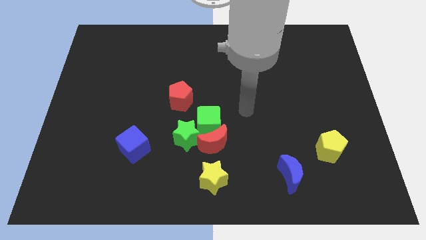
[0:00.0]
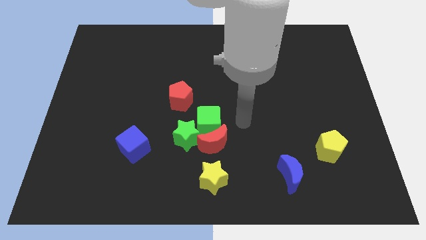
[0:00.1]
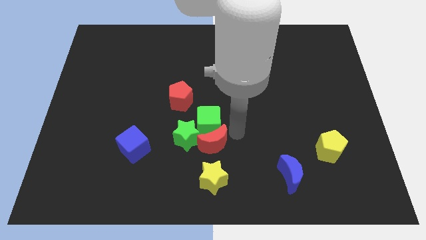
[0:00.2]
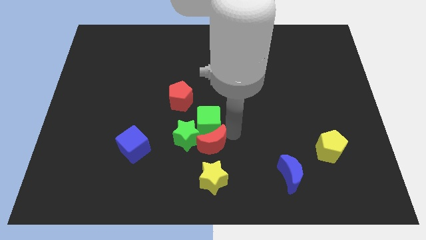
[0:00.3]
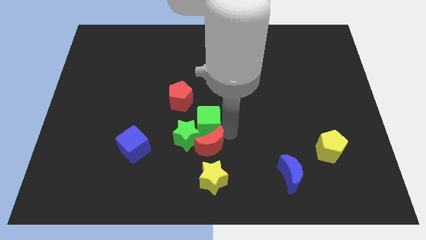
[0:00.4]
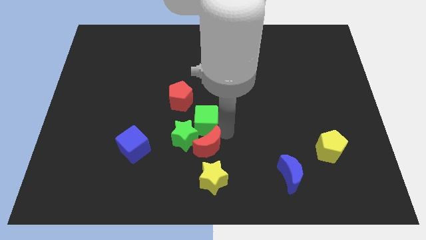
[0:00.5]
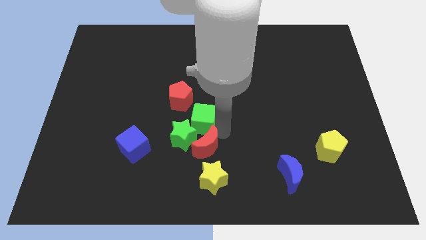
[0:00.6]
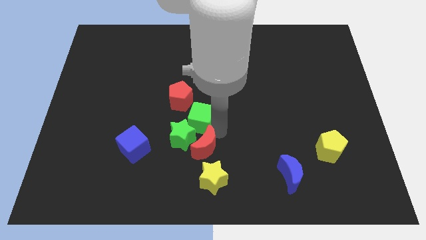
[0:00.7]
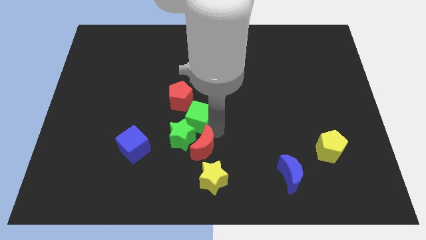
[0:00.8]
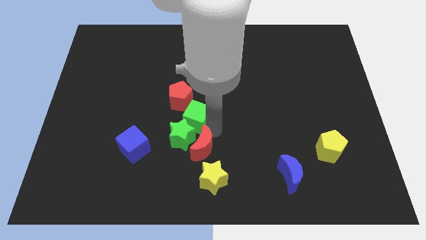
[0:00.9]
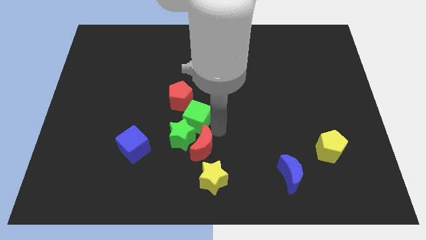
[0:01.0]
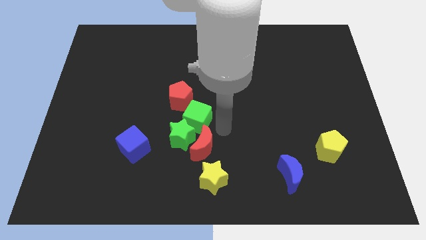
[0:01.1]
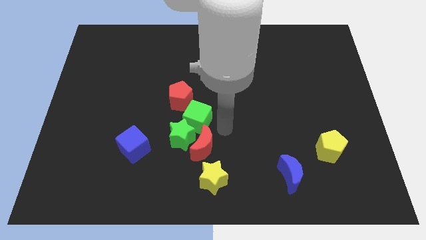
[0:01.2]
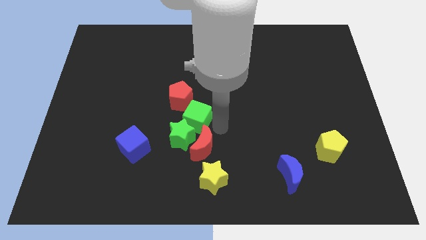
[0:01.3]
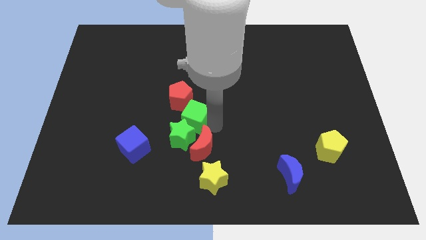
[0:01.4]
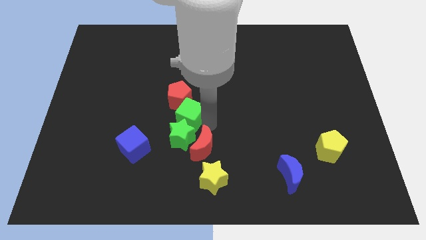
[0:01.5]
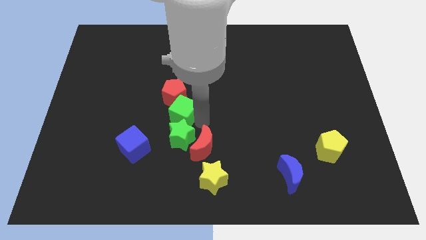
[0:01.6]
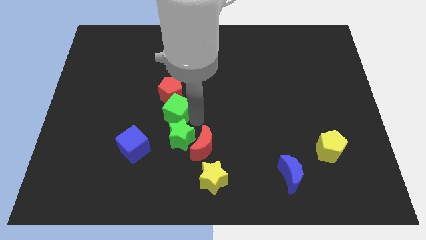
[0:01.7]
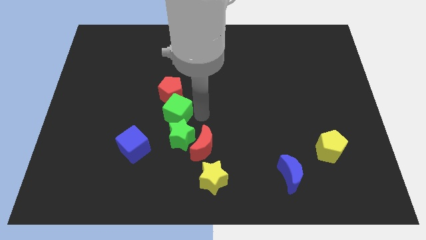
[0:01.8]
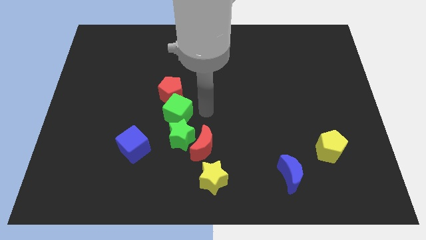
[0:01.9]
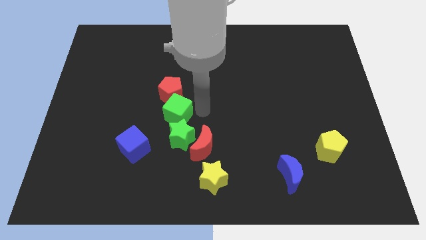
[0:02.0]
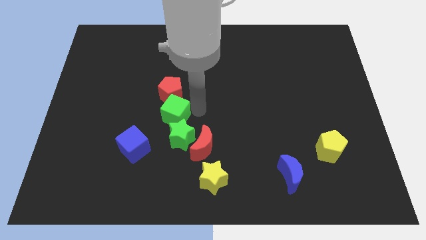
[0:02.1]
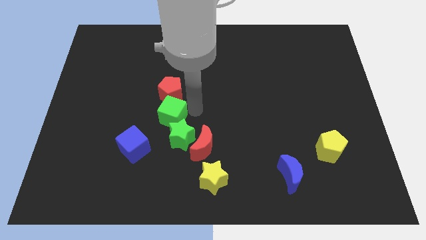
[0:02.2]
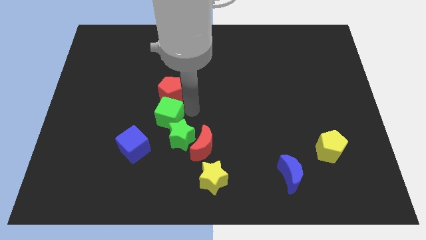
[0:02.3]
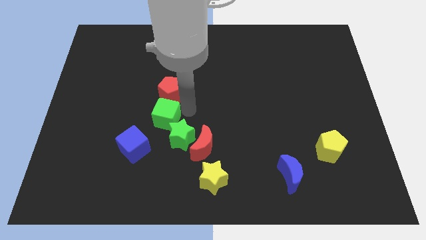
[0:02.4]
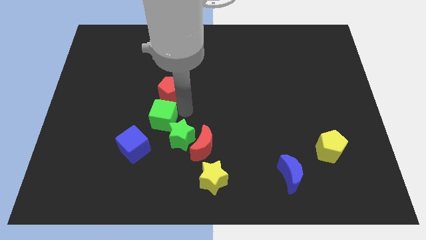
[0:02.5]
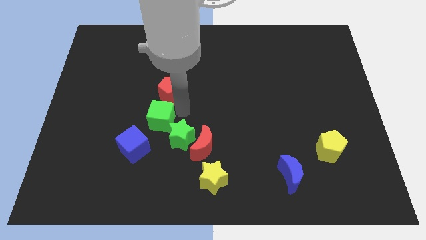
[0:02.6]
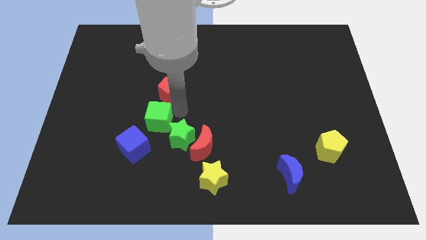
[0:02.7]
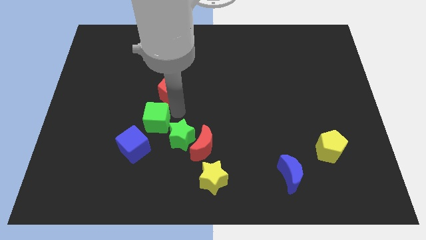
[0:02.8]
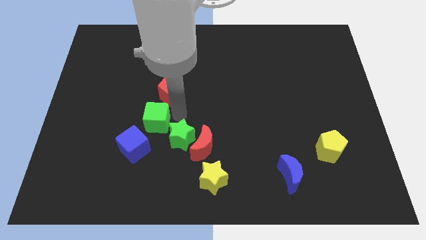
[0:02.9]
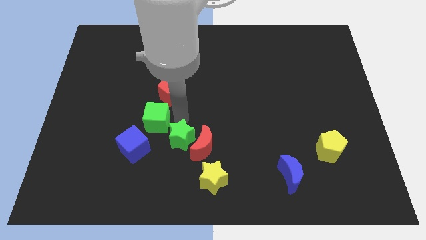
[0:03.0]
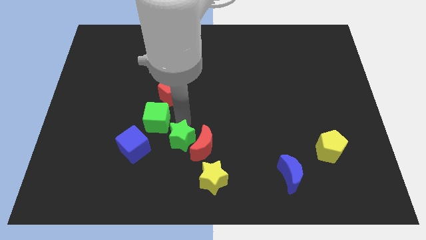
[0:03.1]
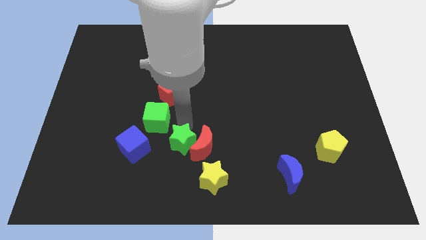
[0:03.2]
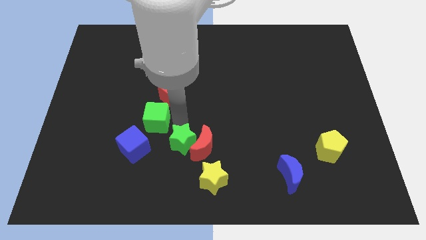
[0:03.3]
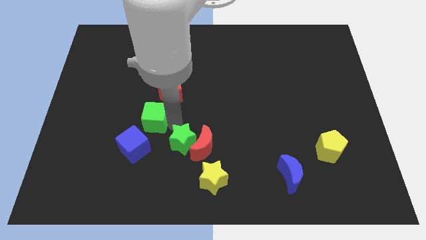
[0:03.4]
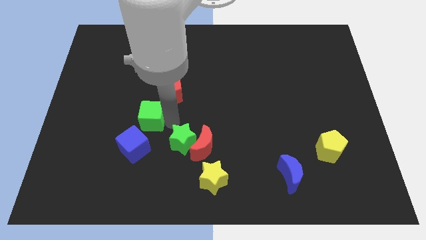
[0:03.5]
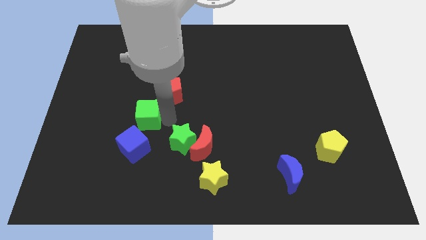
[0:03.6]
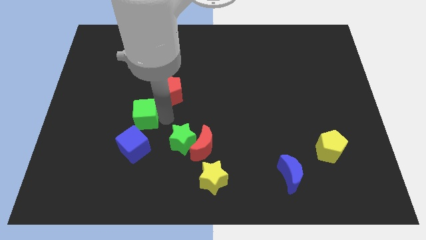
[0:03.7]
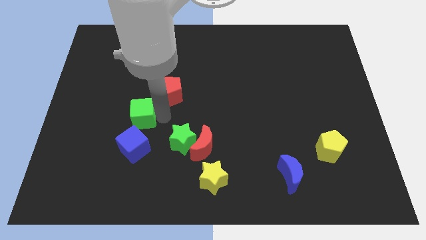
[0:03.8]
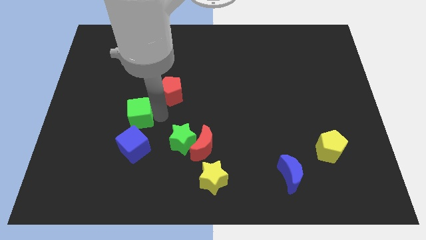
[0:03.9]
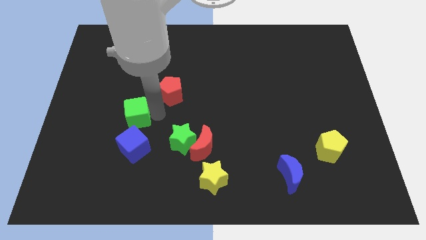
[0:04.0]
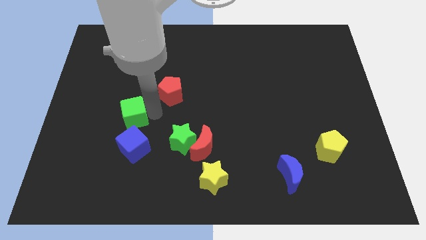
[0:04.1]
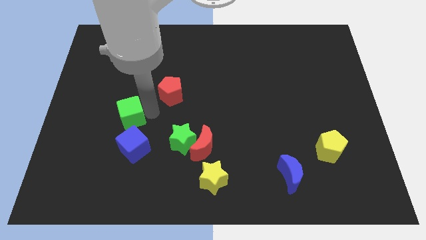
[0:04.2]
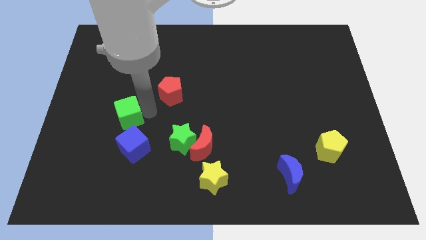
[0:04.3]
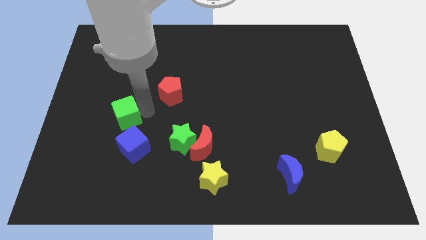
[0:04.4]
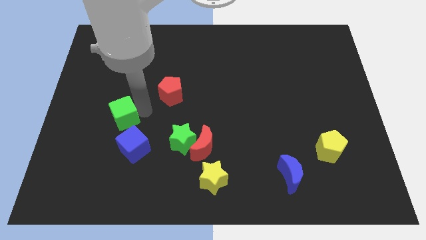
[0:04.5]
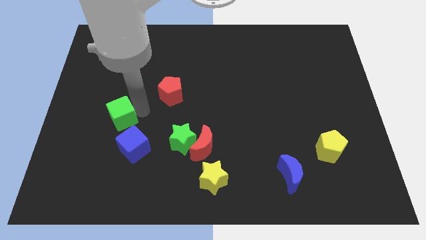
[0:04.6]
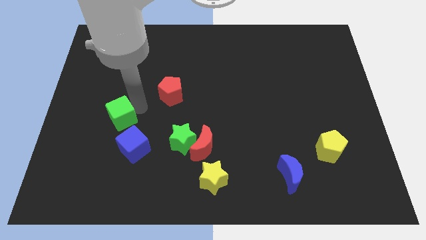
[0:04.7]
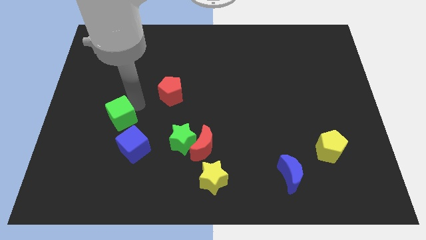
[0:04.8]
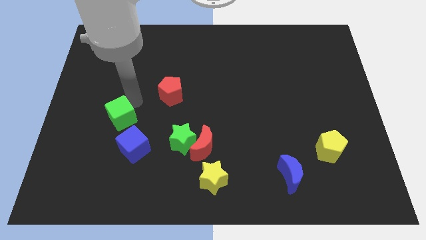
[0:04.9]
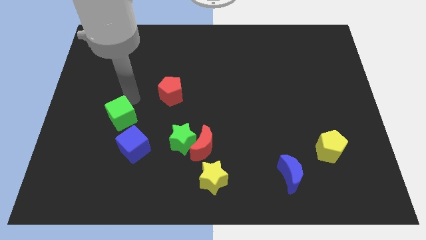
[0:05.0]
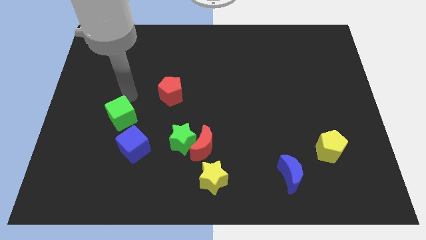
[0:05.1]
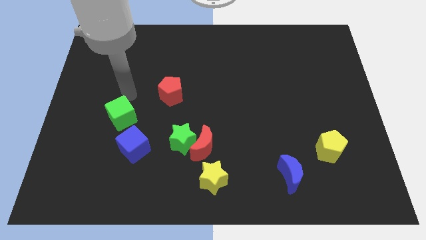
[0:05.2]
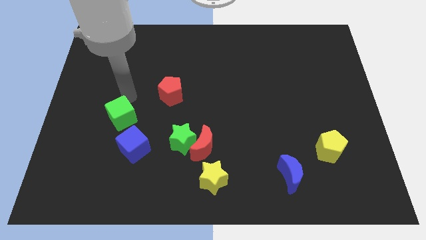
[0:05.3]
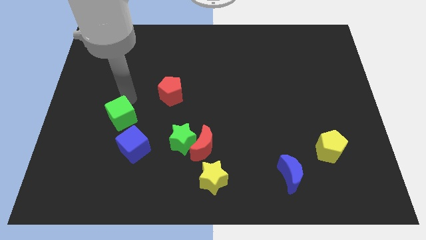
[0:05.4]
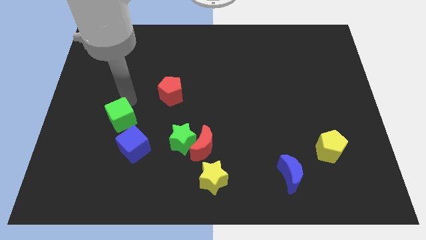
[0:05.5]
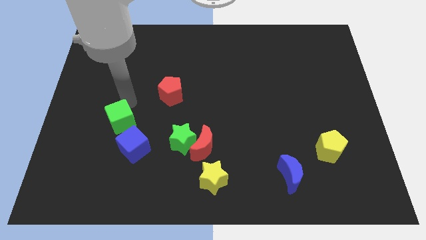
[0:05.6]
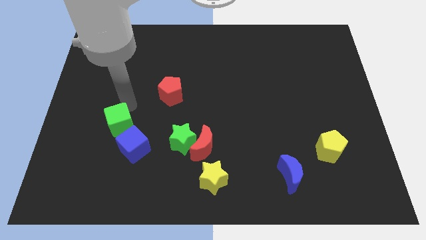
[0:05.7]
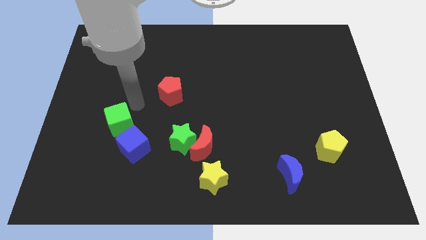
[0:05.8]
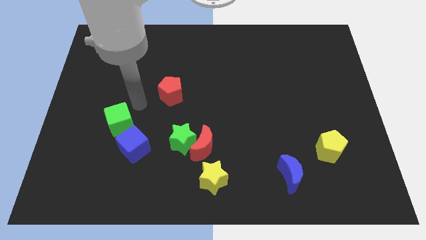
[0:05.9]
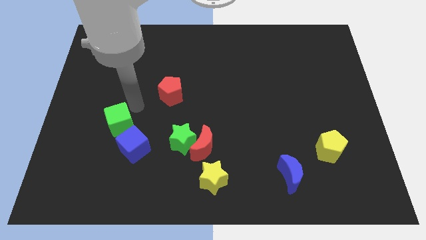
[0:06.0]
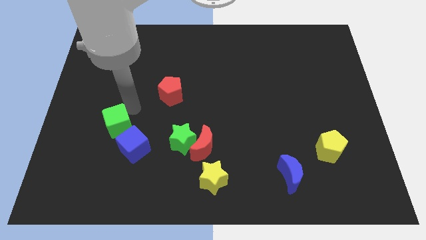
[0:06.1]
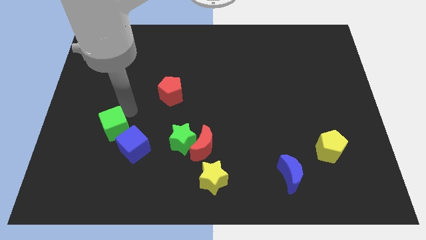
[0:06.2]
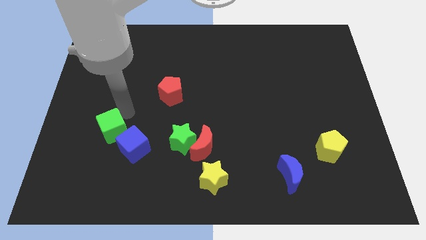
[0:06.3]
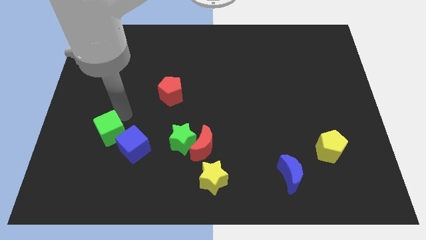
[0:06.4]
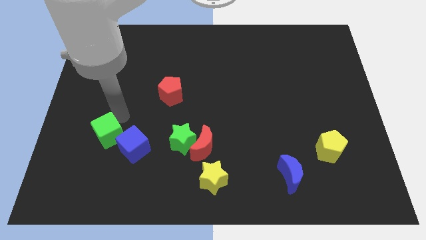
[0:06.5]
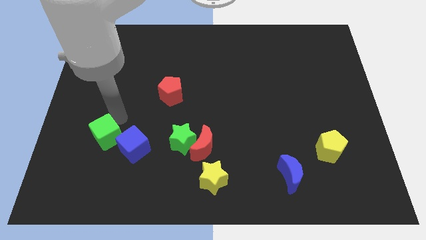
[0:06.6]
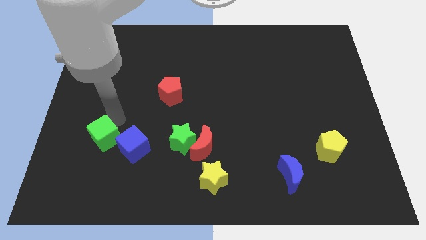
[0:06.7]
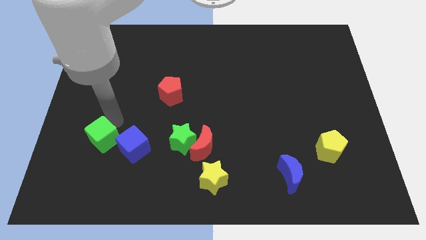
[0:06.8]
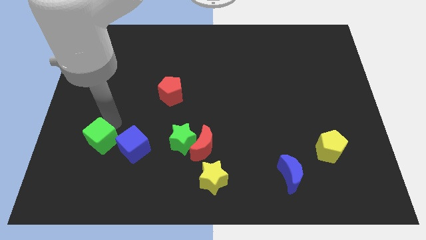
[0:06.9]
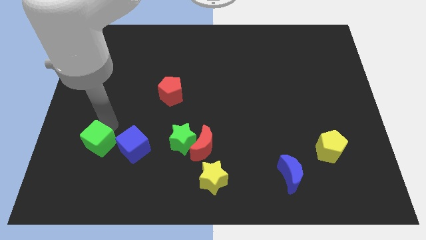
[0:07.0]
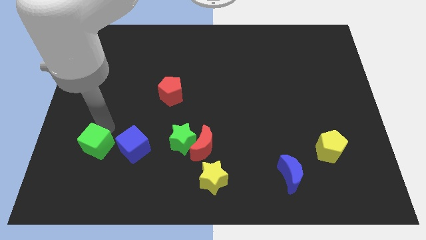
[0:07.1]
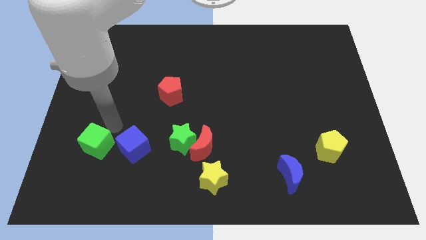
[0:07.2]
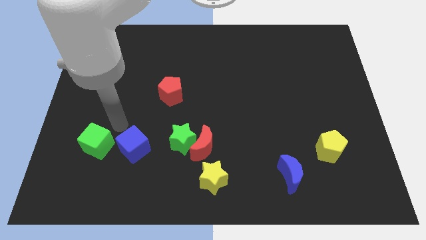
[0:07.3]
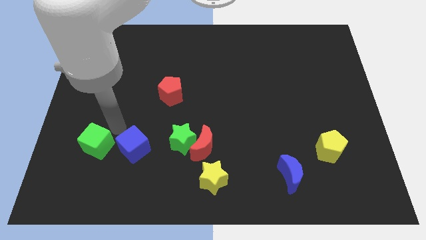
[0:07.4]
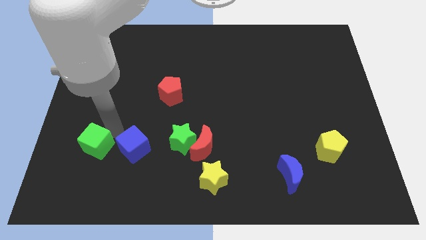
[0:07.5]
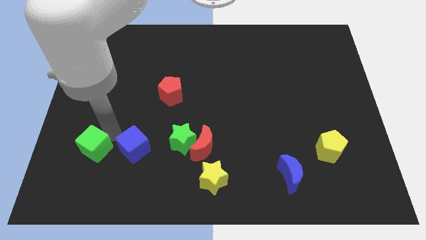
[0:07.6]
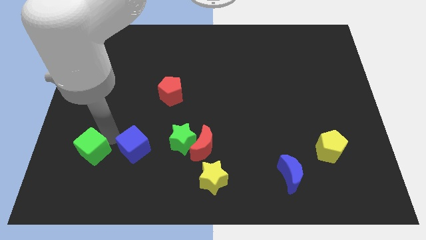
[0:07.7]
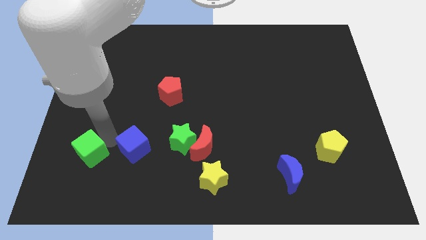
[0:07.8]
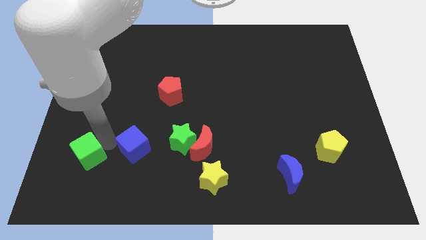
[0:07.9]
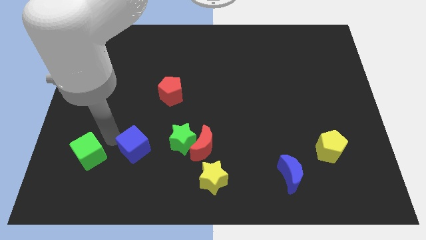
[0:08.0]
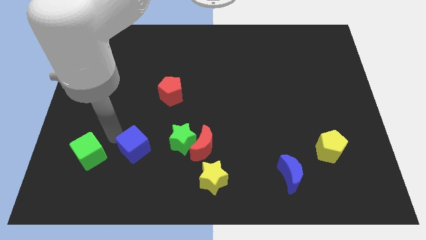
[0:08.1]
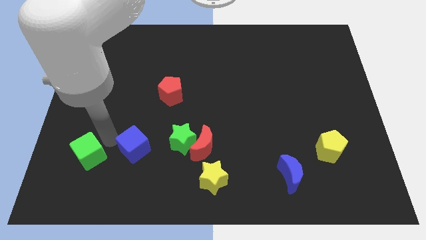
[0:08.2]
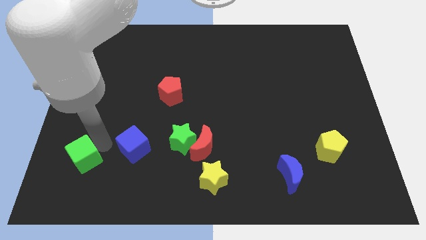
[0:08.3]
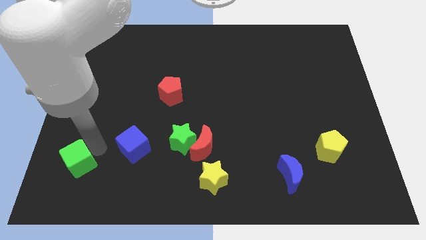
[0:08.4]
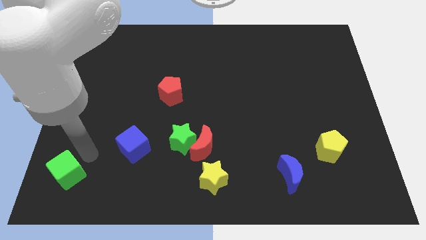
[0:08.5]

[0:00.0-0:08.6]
put the green cube to the bottom left of the board
